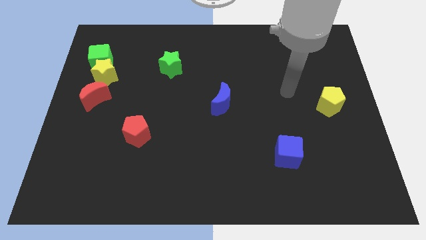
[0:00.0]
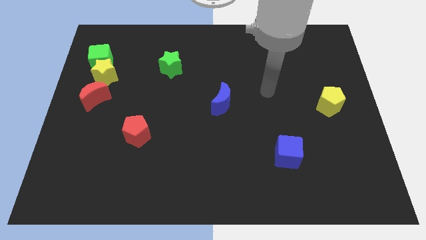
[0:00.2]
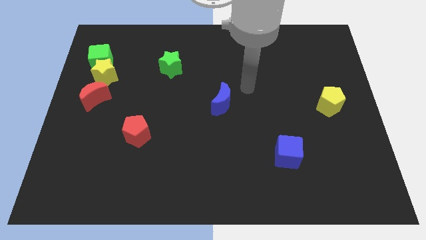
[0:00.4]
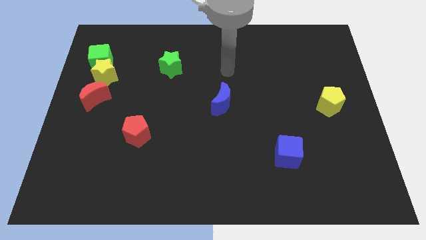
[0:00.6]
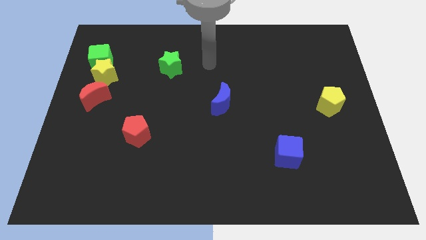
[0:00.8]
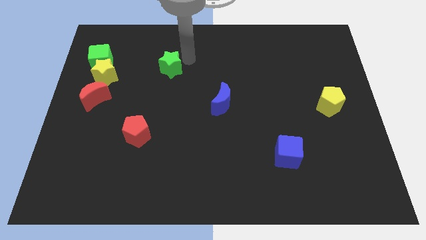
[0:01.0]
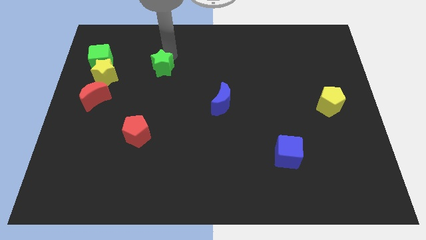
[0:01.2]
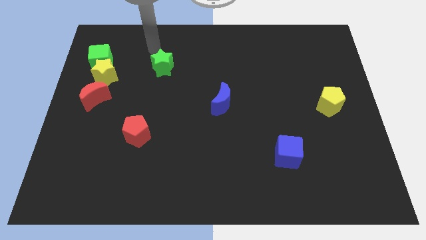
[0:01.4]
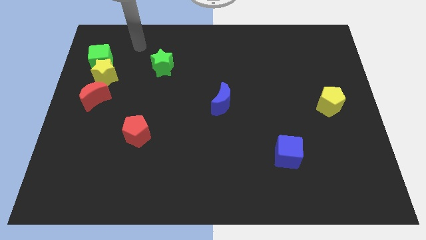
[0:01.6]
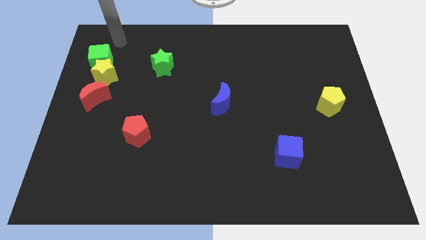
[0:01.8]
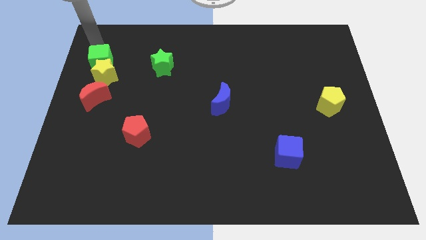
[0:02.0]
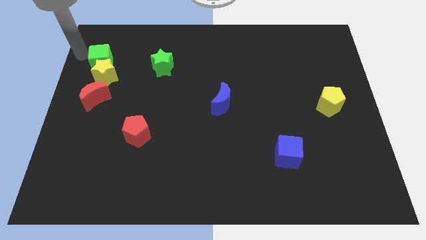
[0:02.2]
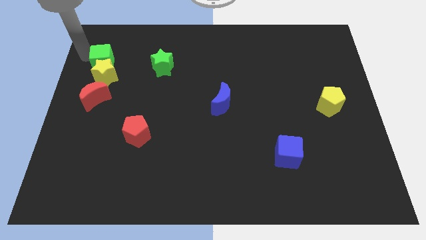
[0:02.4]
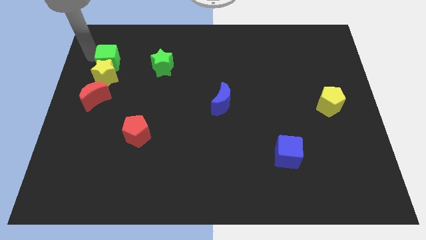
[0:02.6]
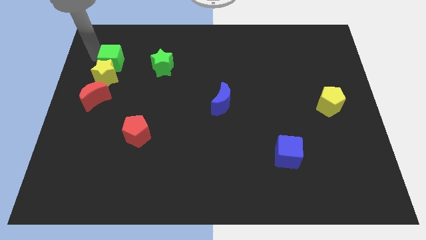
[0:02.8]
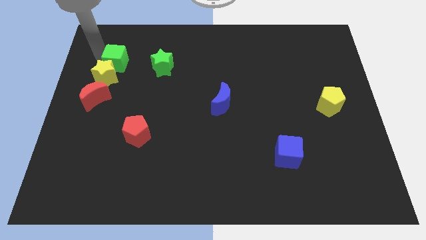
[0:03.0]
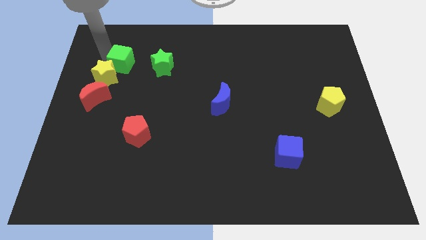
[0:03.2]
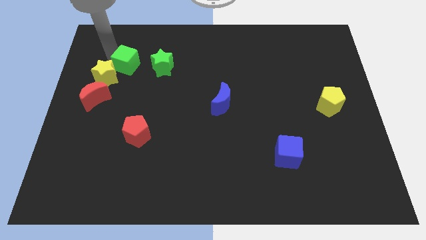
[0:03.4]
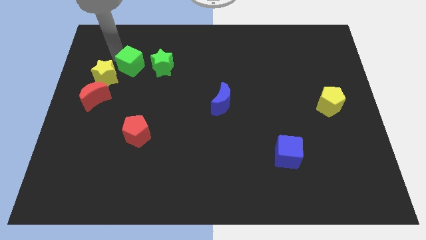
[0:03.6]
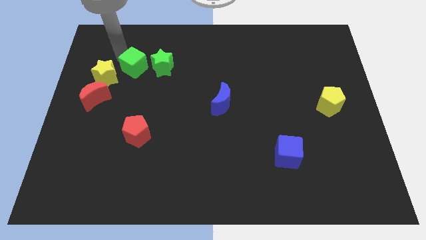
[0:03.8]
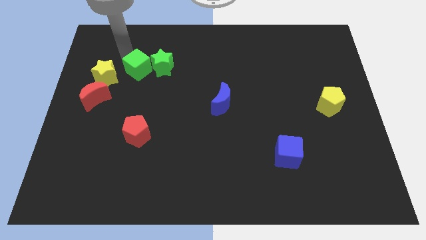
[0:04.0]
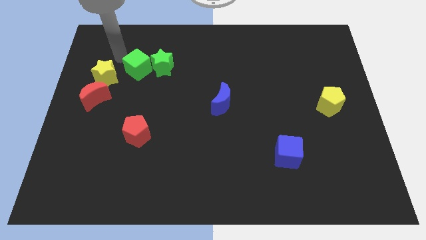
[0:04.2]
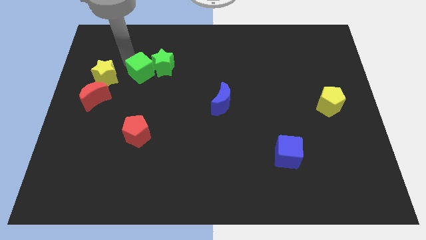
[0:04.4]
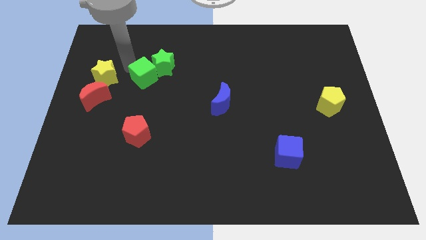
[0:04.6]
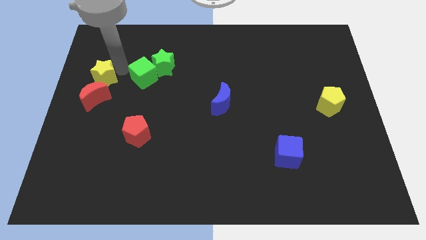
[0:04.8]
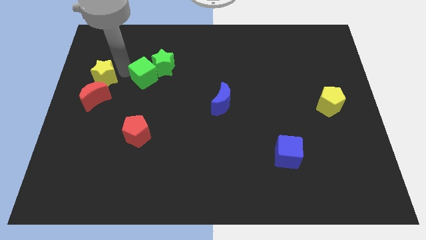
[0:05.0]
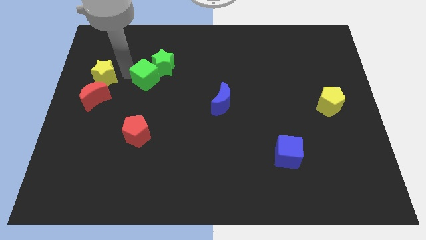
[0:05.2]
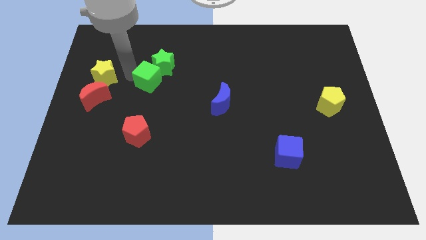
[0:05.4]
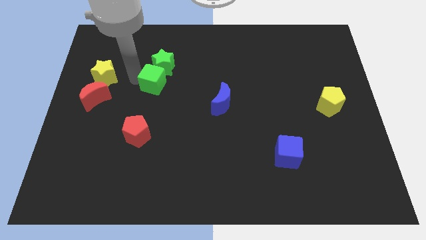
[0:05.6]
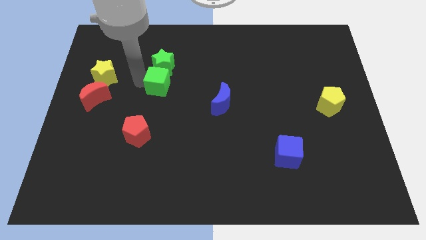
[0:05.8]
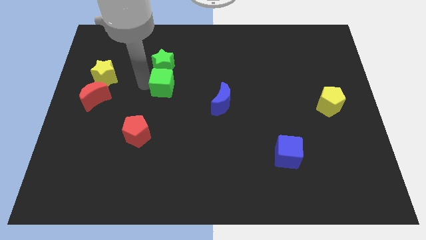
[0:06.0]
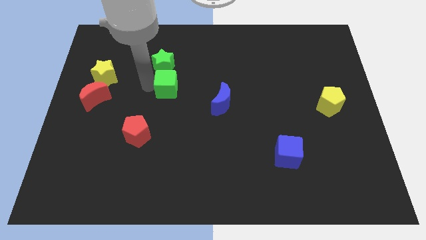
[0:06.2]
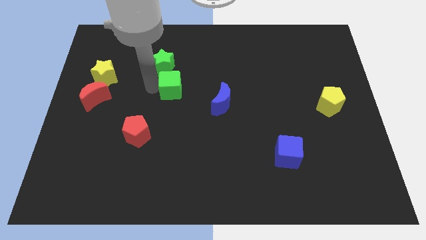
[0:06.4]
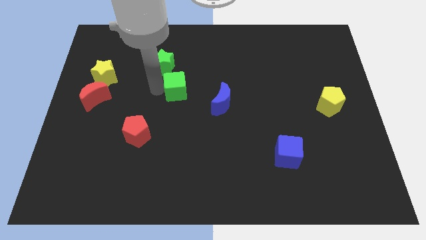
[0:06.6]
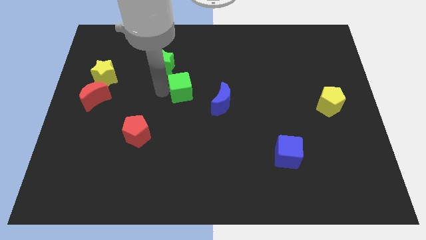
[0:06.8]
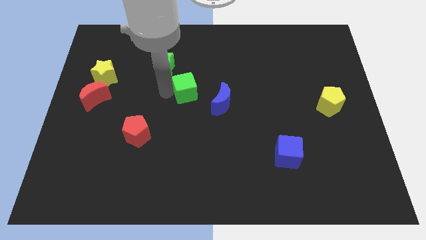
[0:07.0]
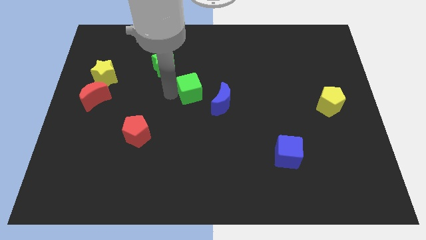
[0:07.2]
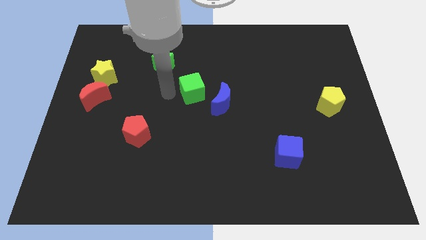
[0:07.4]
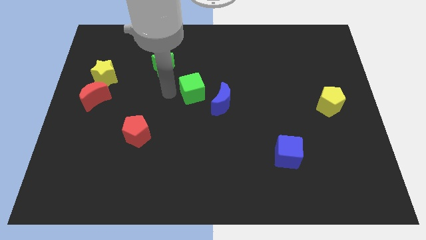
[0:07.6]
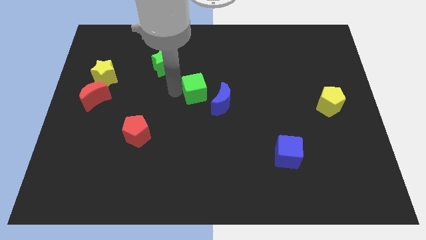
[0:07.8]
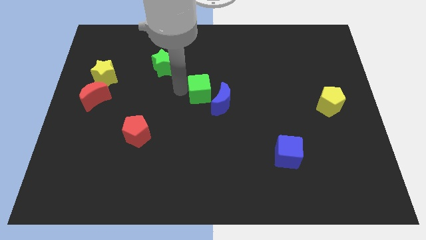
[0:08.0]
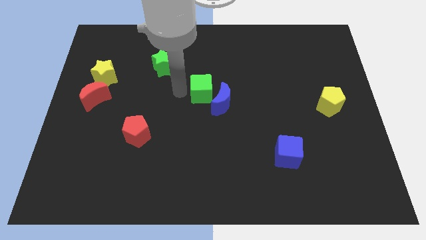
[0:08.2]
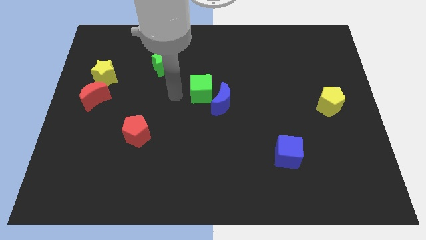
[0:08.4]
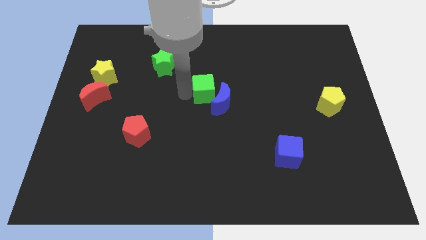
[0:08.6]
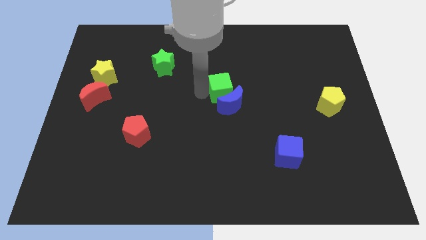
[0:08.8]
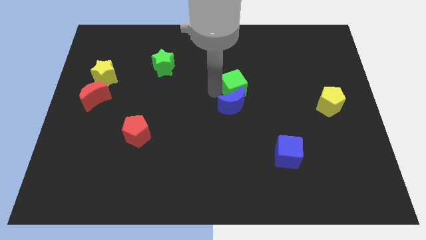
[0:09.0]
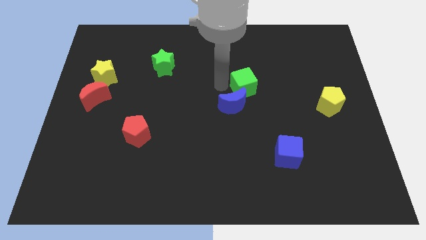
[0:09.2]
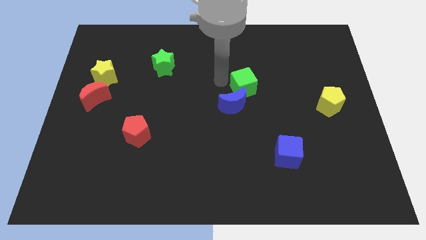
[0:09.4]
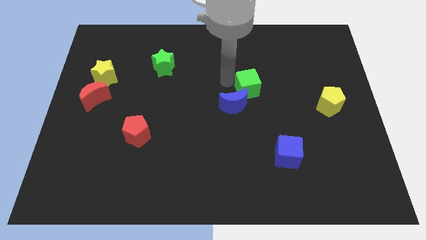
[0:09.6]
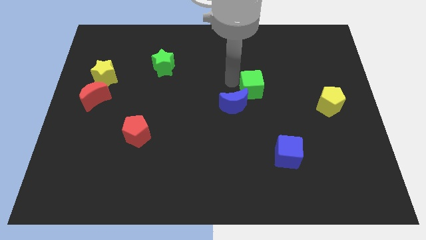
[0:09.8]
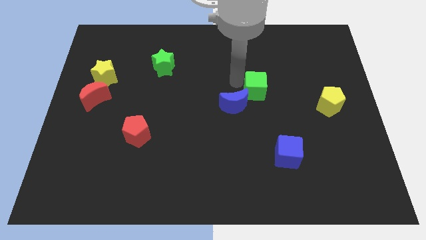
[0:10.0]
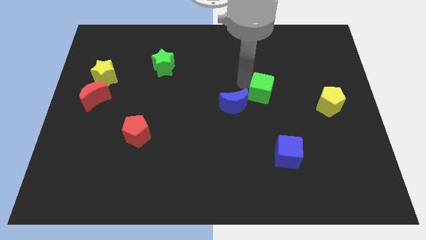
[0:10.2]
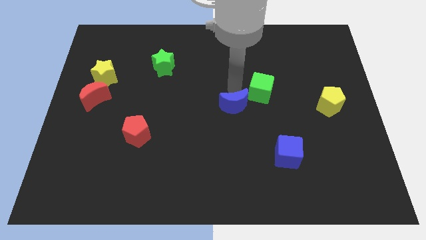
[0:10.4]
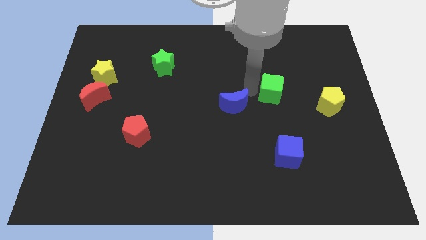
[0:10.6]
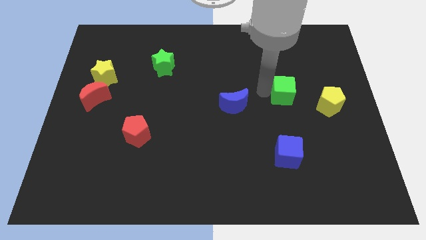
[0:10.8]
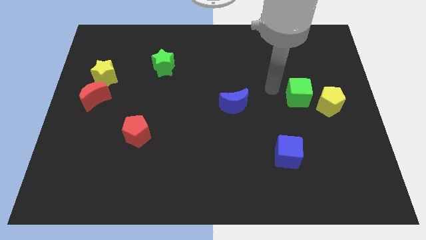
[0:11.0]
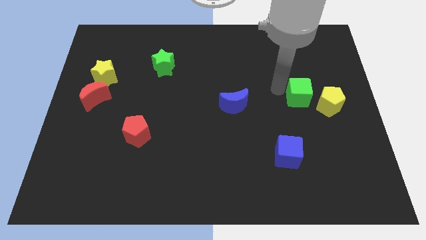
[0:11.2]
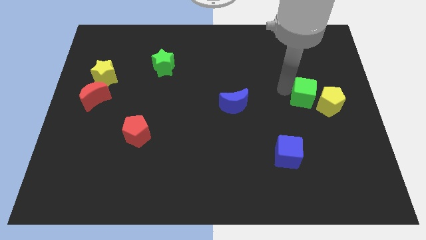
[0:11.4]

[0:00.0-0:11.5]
move the green cube towards the yellow pentagon
